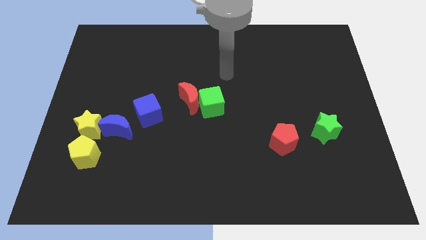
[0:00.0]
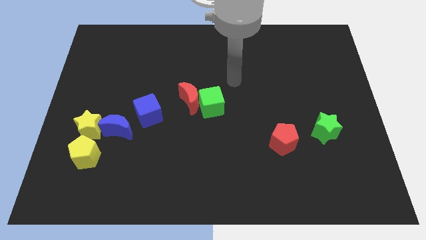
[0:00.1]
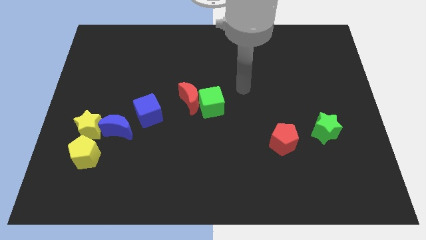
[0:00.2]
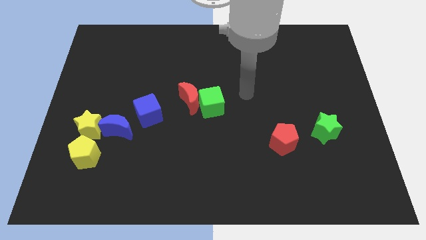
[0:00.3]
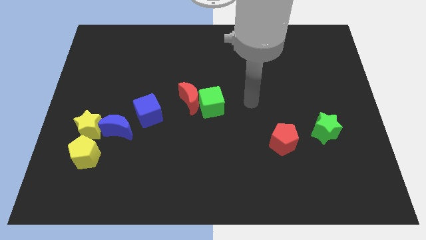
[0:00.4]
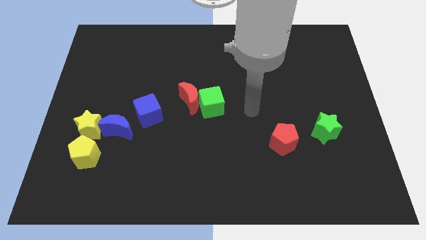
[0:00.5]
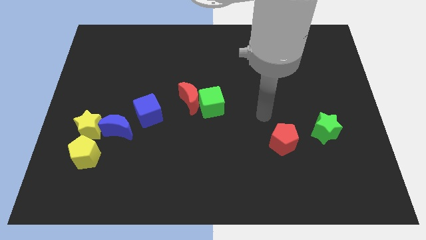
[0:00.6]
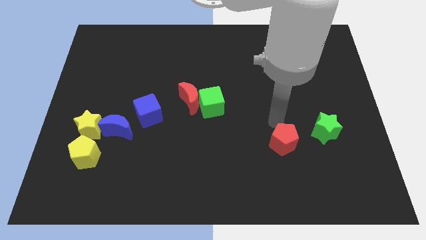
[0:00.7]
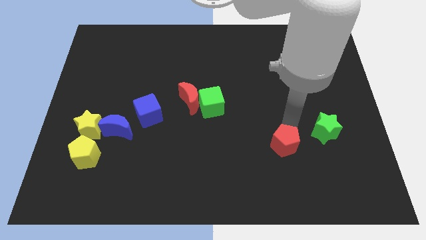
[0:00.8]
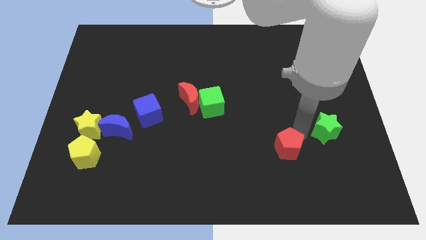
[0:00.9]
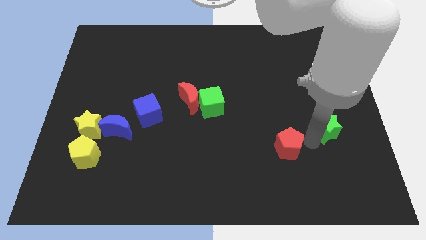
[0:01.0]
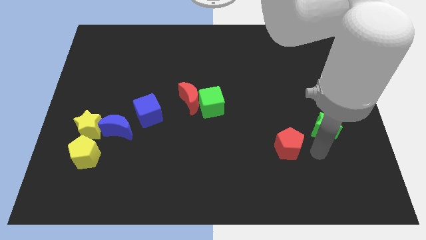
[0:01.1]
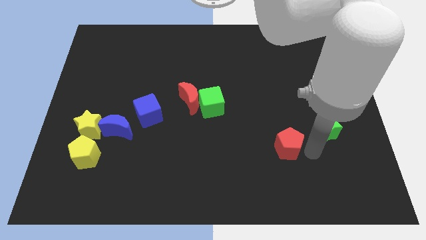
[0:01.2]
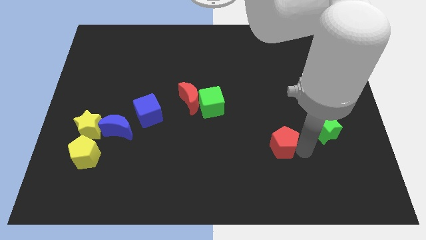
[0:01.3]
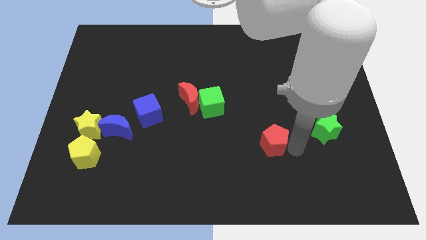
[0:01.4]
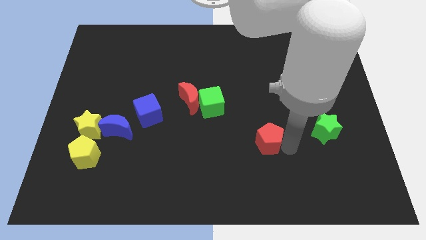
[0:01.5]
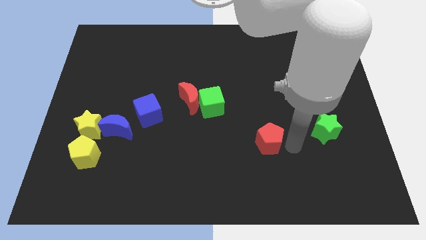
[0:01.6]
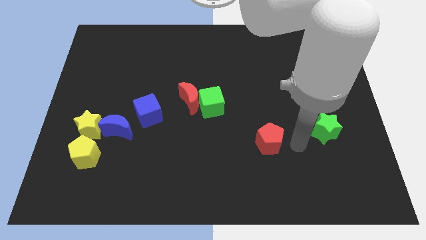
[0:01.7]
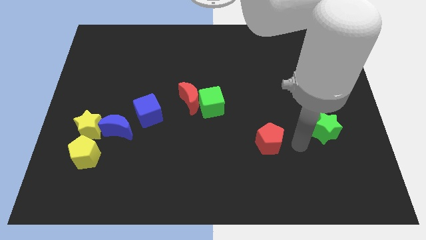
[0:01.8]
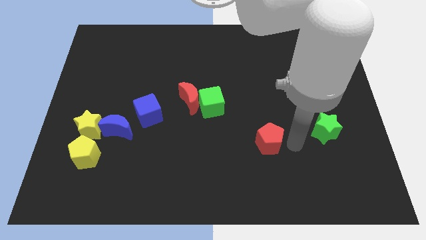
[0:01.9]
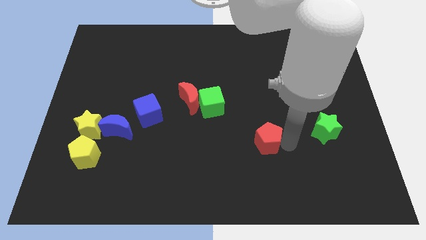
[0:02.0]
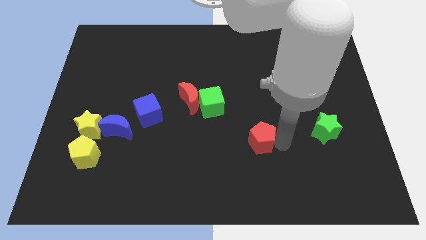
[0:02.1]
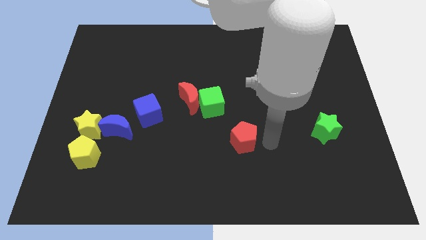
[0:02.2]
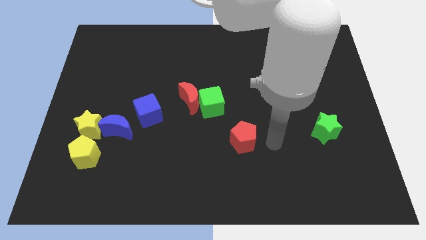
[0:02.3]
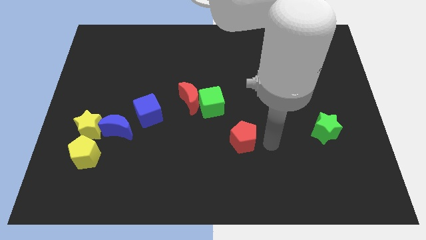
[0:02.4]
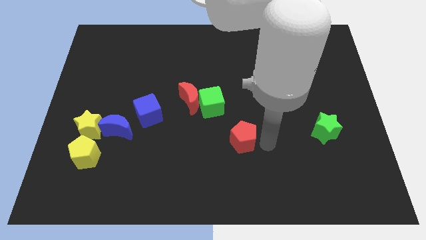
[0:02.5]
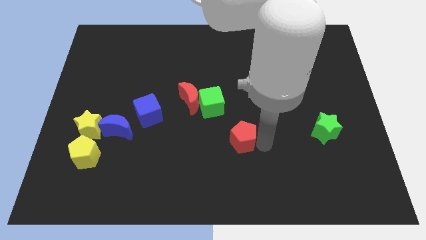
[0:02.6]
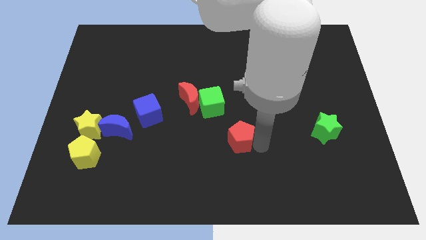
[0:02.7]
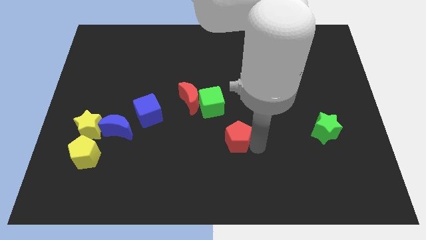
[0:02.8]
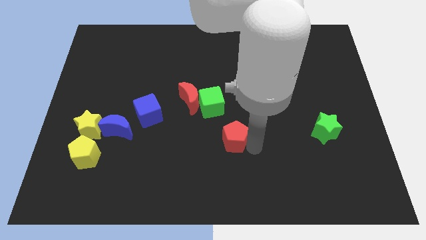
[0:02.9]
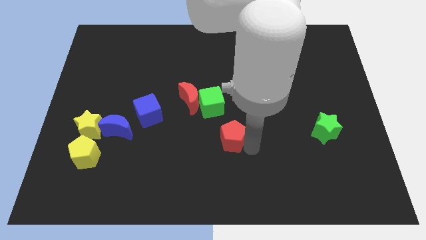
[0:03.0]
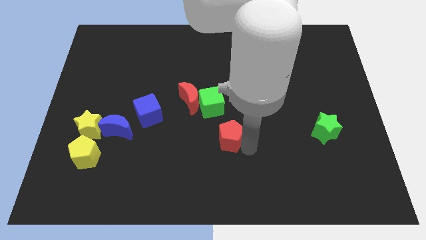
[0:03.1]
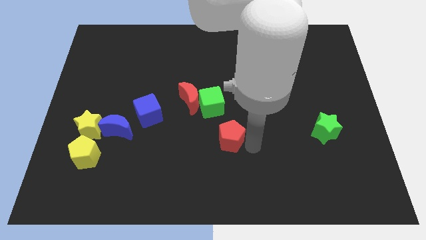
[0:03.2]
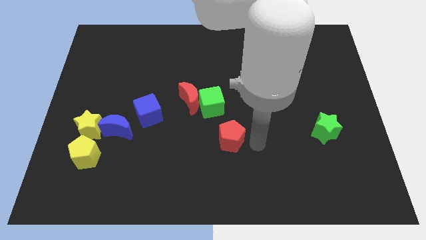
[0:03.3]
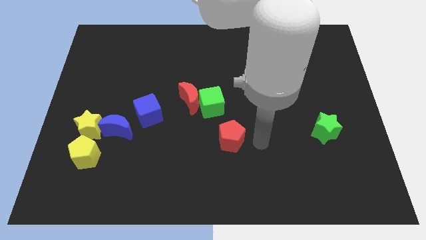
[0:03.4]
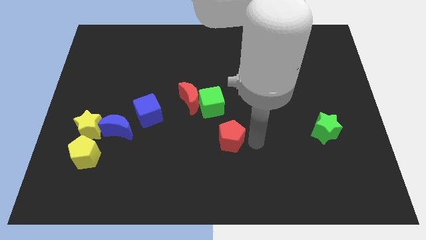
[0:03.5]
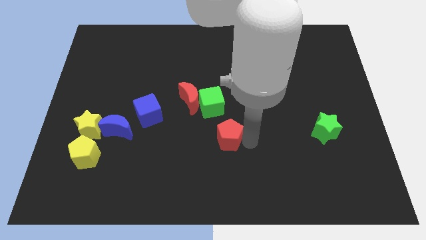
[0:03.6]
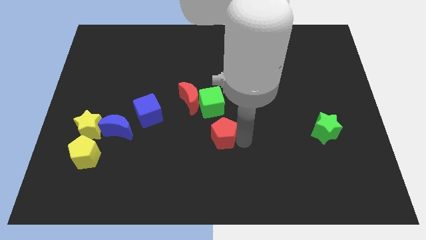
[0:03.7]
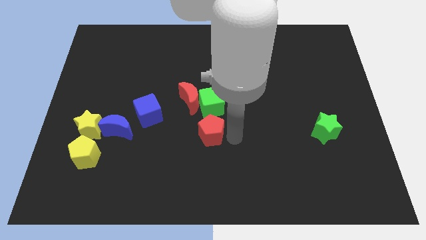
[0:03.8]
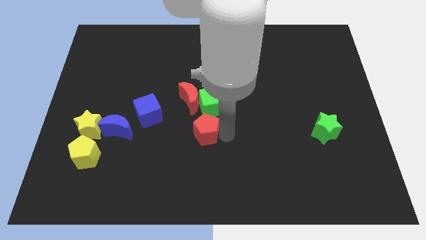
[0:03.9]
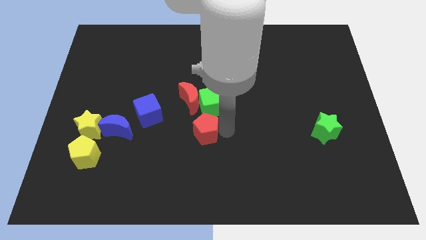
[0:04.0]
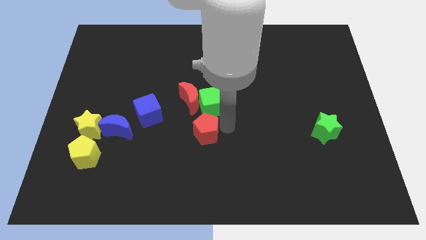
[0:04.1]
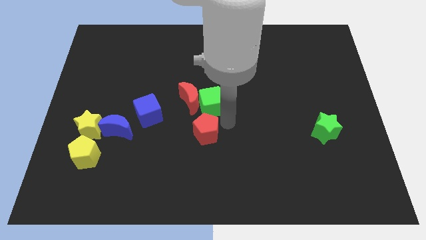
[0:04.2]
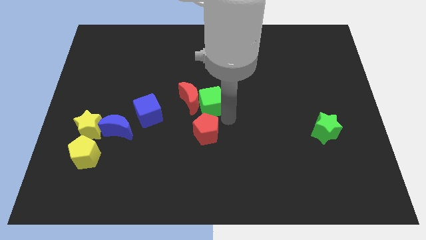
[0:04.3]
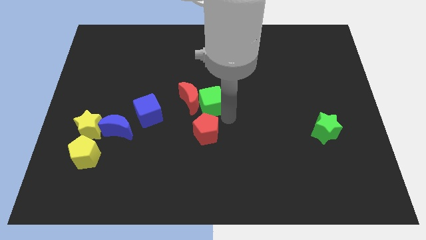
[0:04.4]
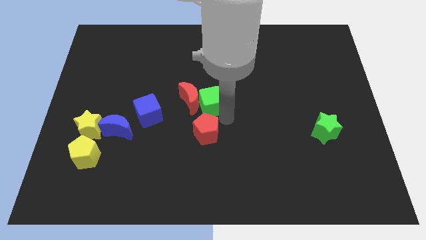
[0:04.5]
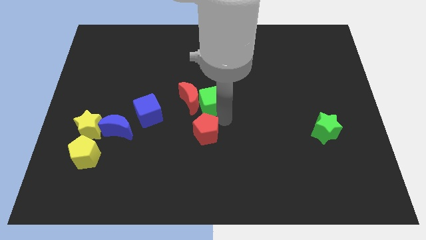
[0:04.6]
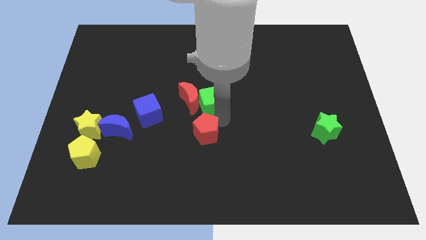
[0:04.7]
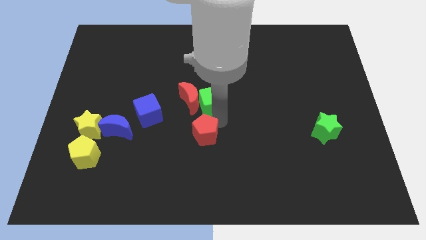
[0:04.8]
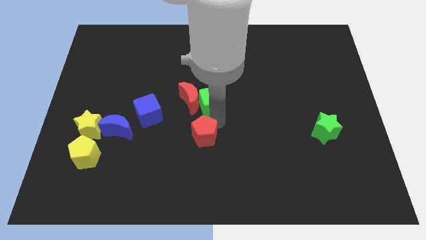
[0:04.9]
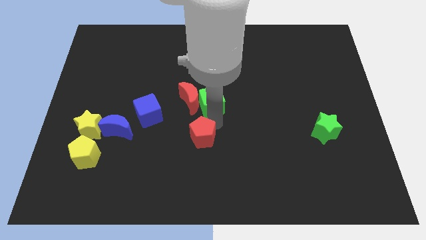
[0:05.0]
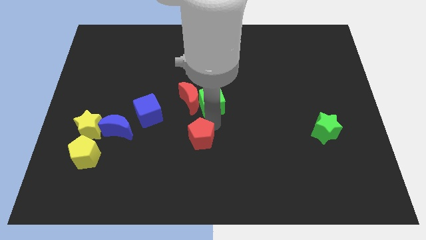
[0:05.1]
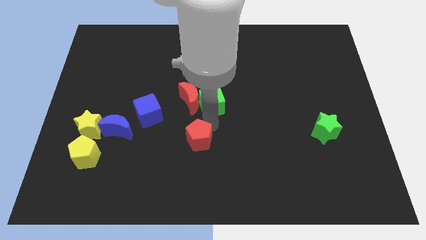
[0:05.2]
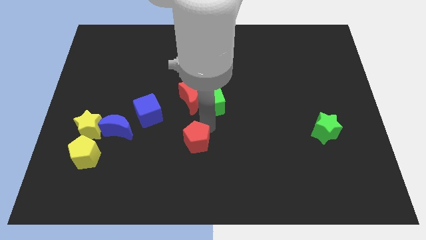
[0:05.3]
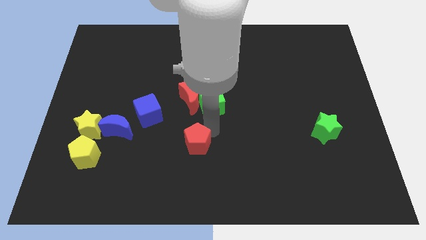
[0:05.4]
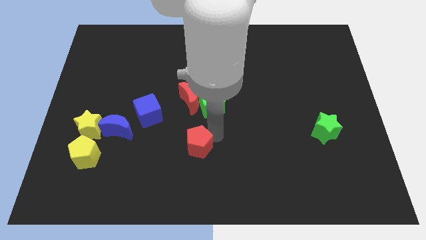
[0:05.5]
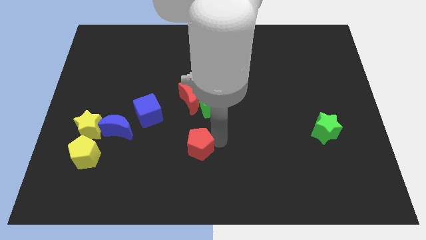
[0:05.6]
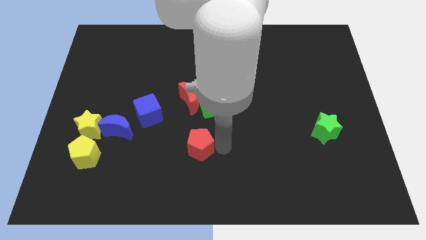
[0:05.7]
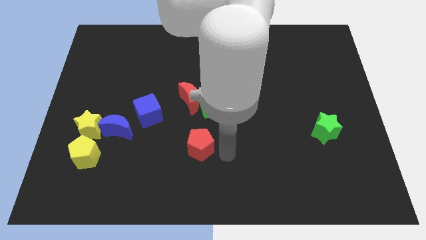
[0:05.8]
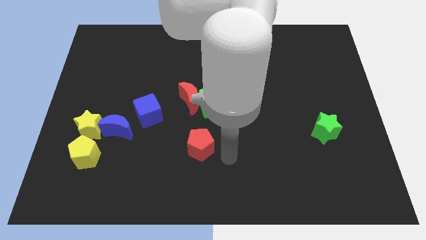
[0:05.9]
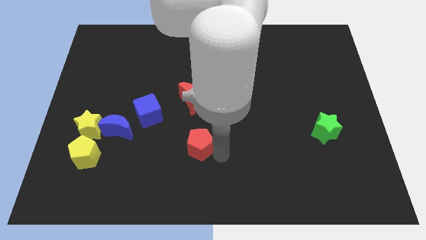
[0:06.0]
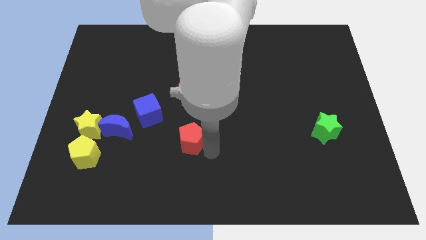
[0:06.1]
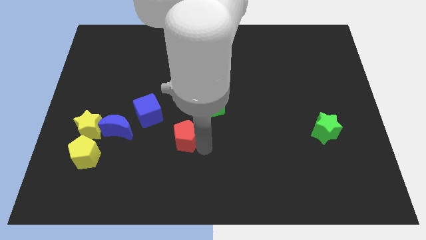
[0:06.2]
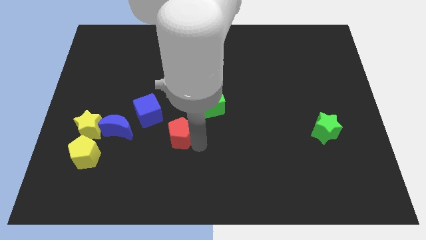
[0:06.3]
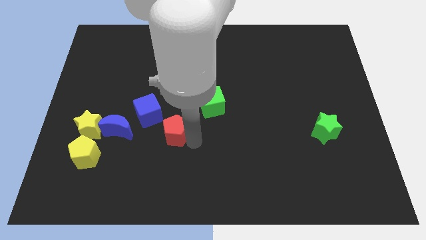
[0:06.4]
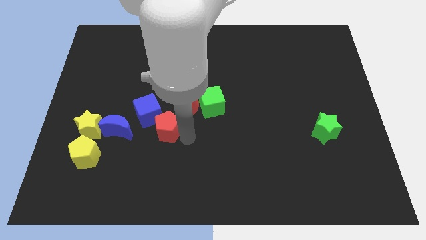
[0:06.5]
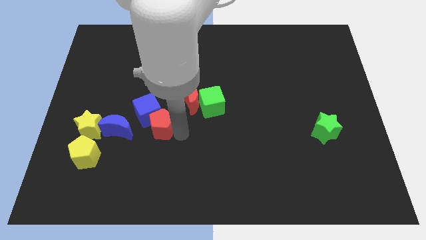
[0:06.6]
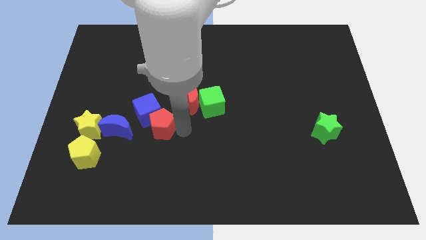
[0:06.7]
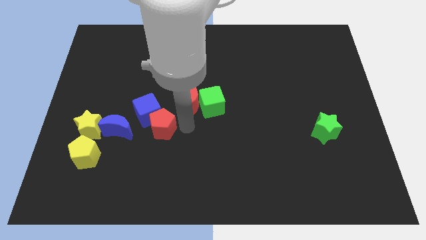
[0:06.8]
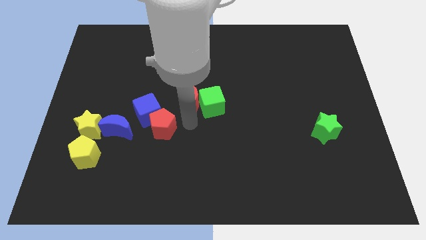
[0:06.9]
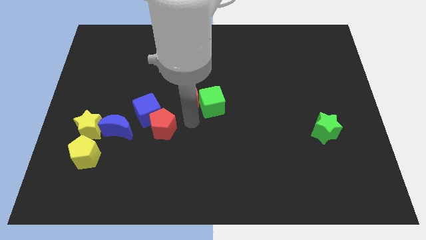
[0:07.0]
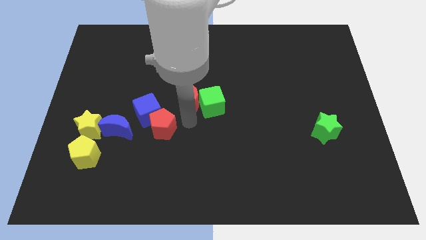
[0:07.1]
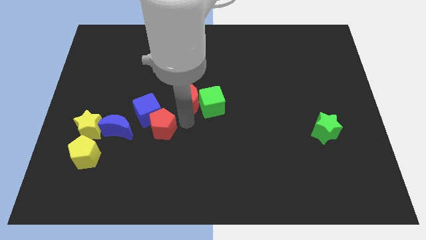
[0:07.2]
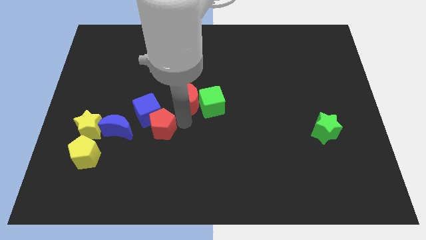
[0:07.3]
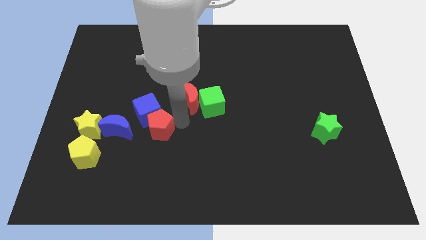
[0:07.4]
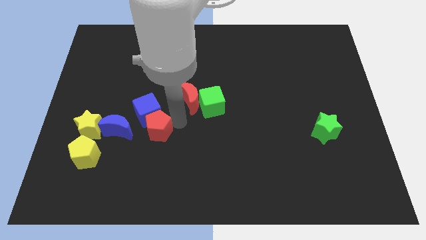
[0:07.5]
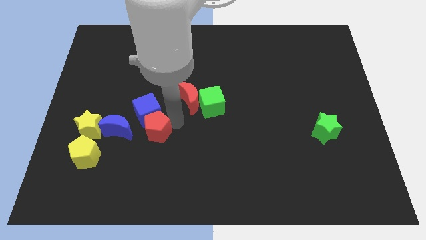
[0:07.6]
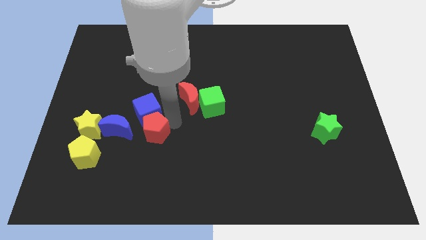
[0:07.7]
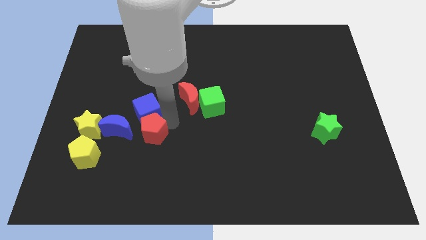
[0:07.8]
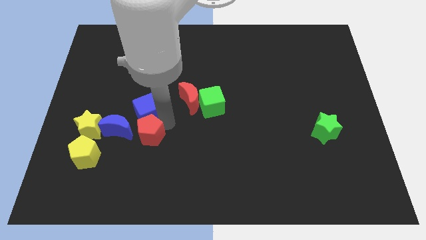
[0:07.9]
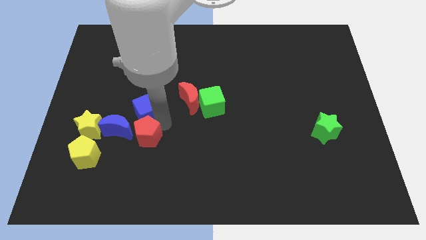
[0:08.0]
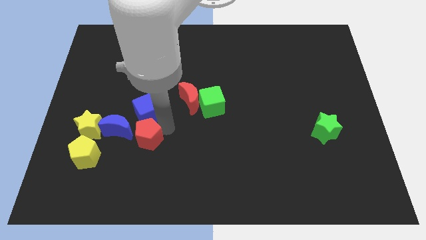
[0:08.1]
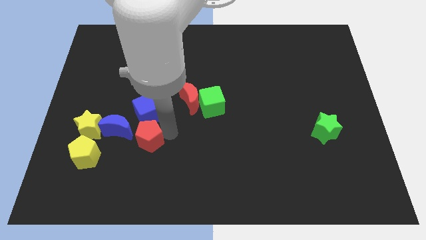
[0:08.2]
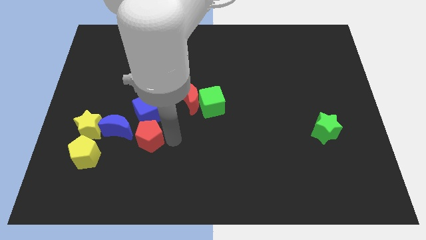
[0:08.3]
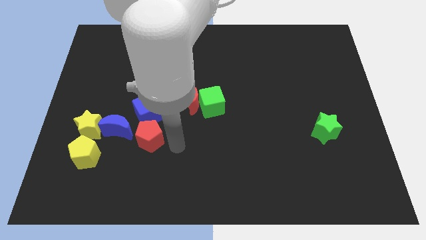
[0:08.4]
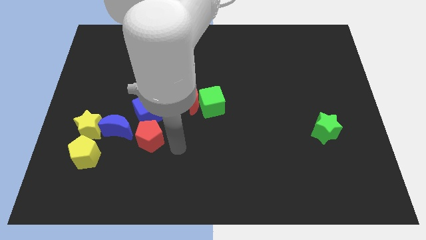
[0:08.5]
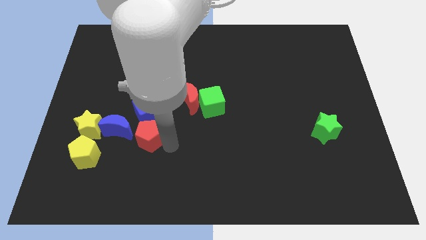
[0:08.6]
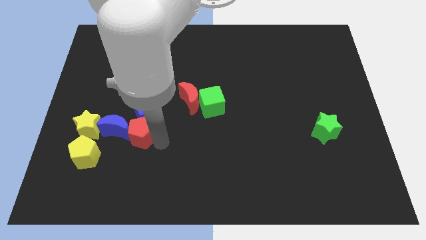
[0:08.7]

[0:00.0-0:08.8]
move the red pentagon towards the blue moon
